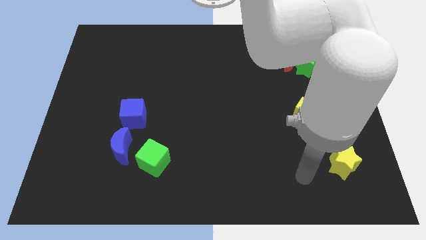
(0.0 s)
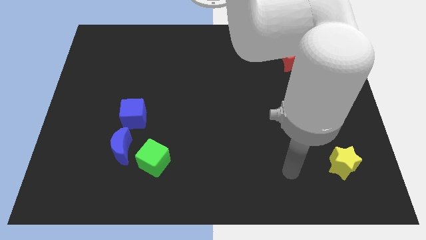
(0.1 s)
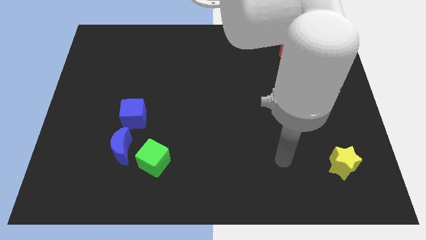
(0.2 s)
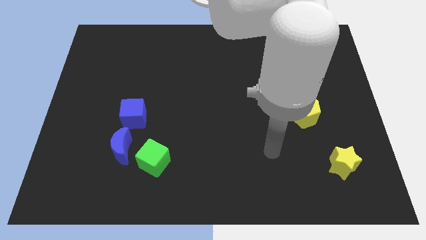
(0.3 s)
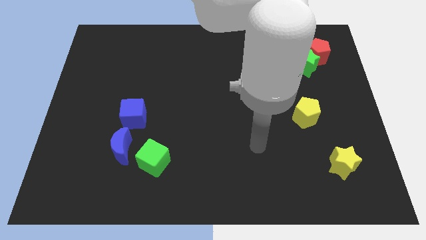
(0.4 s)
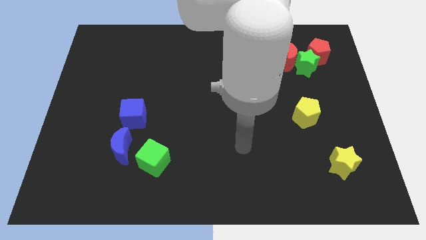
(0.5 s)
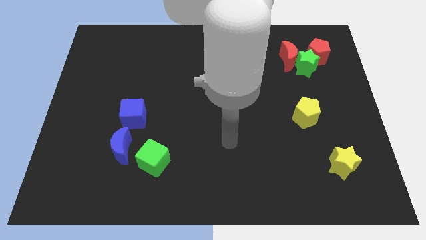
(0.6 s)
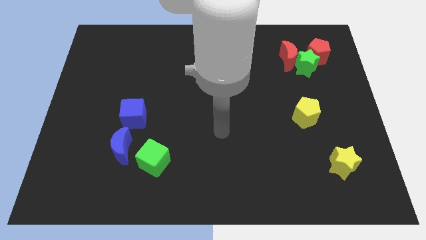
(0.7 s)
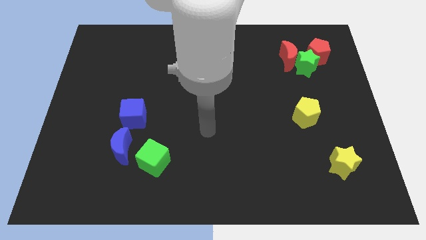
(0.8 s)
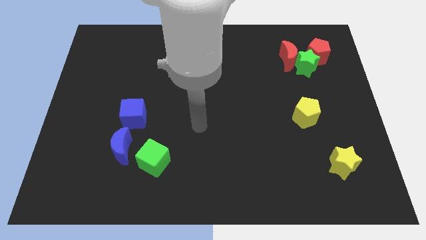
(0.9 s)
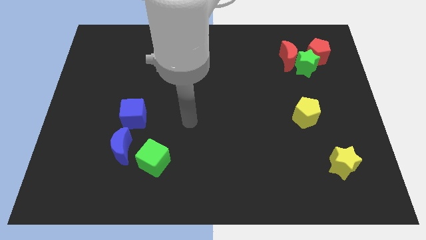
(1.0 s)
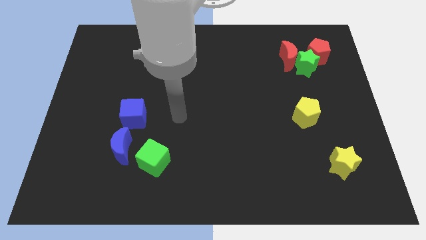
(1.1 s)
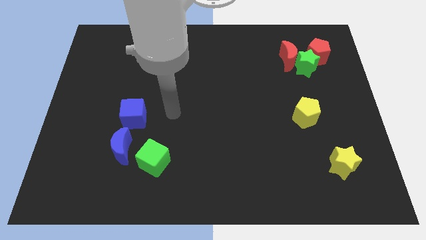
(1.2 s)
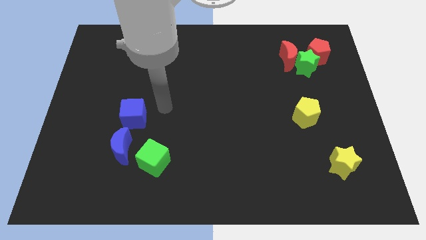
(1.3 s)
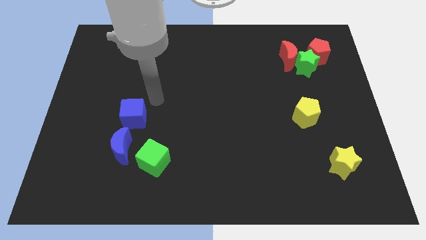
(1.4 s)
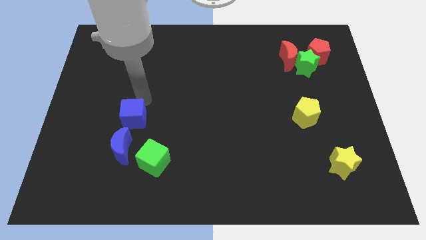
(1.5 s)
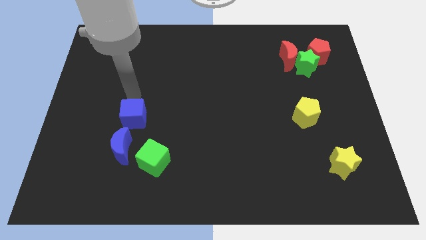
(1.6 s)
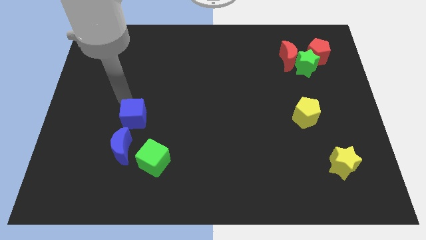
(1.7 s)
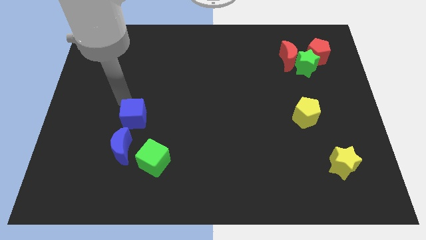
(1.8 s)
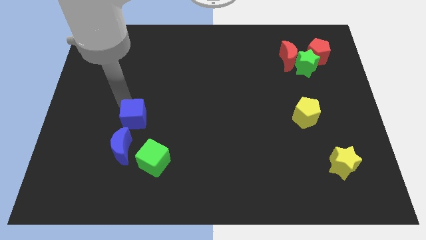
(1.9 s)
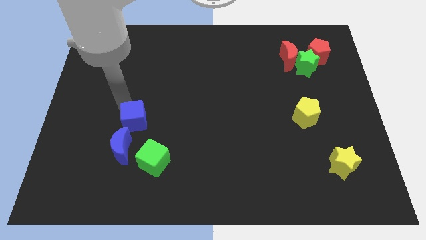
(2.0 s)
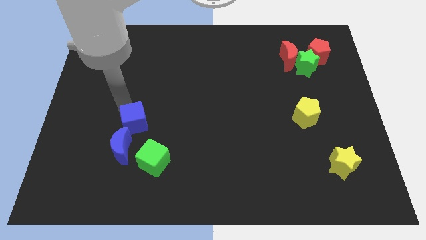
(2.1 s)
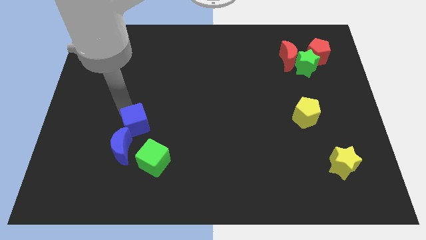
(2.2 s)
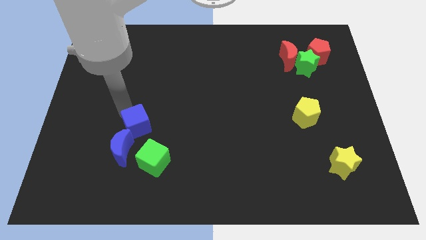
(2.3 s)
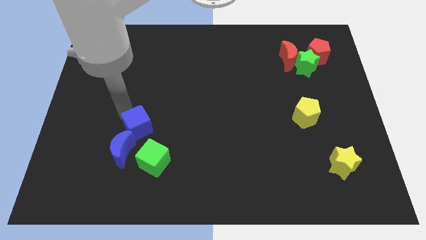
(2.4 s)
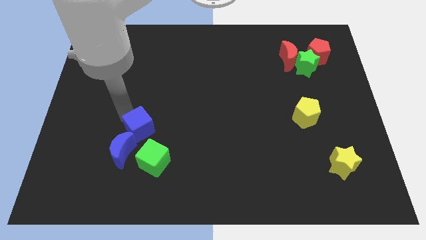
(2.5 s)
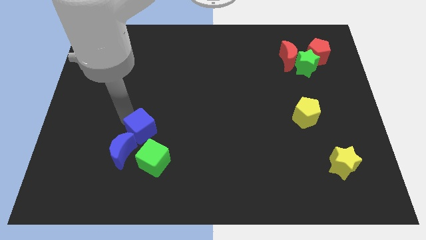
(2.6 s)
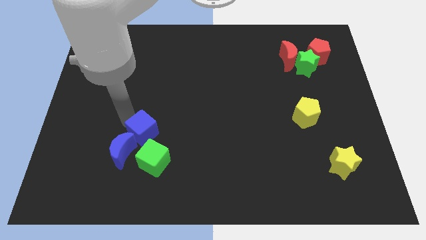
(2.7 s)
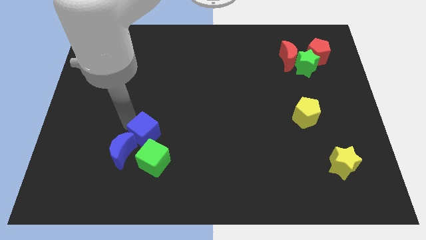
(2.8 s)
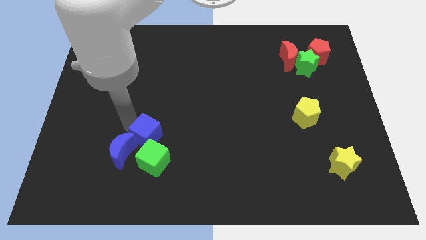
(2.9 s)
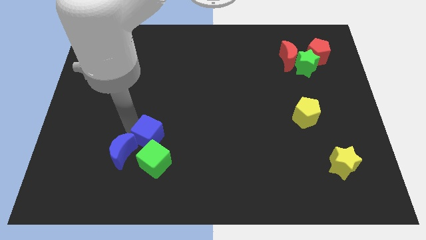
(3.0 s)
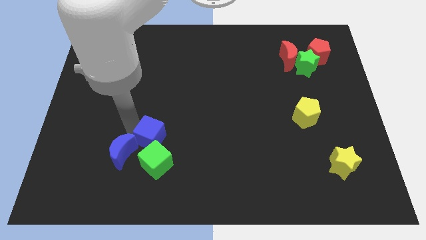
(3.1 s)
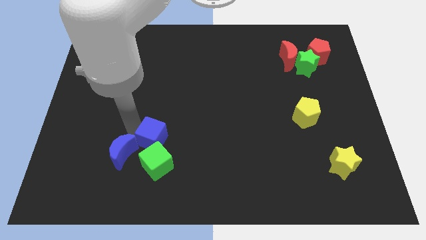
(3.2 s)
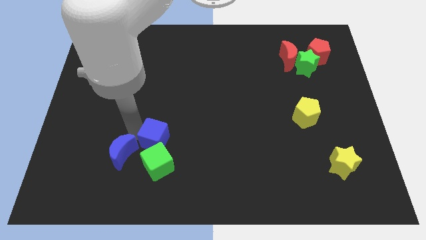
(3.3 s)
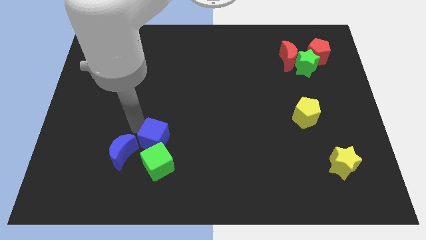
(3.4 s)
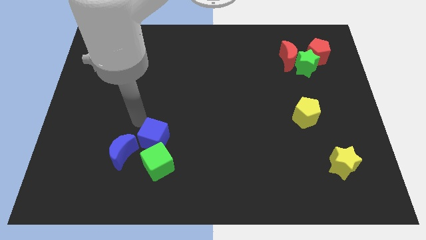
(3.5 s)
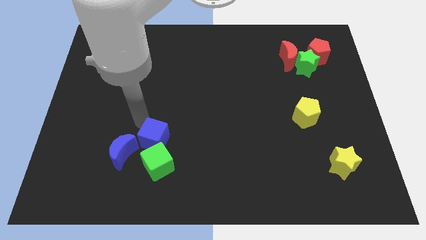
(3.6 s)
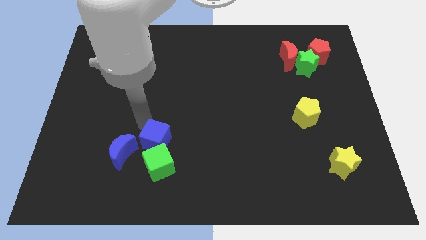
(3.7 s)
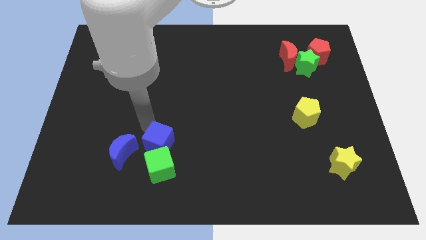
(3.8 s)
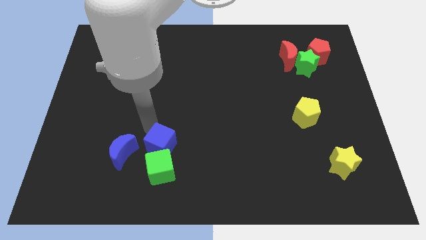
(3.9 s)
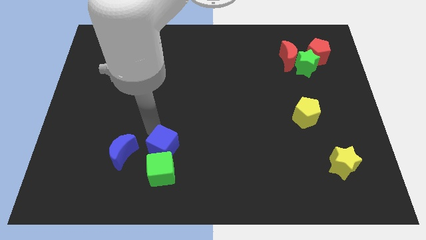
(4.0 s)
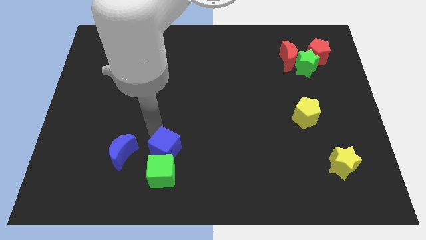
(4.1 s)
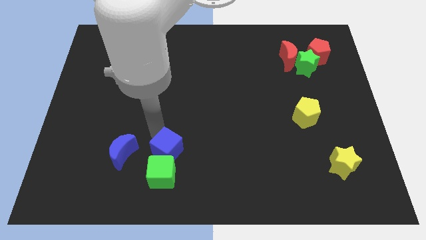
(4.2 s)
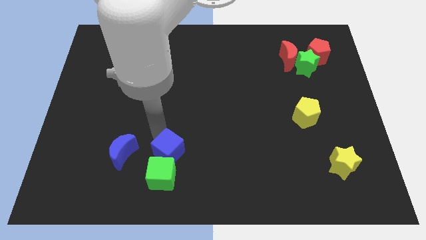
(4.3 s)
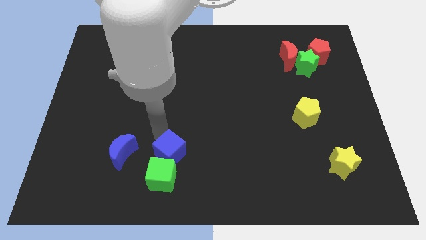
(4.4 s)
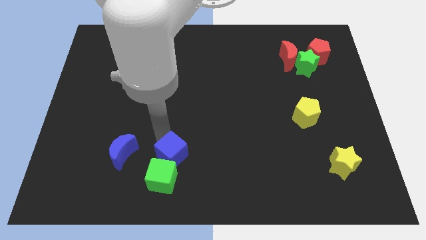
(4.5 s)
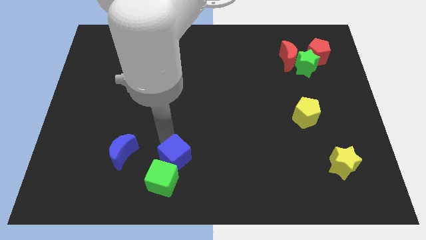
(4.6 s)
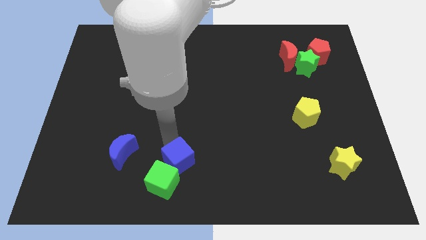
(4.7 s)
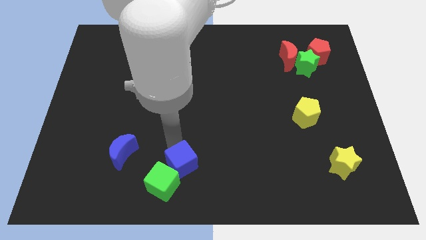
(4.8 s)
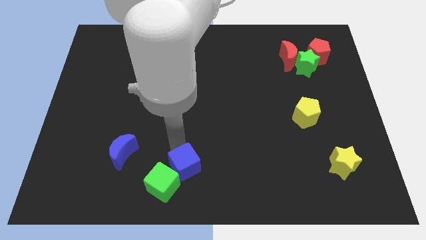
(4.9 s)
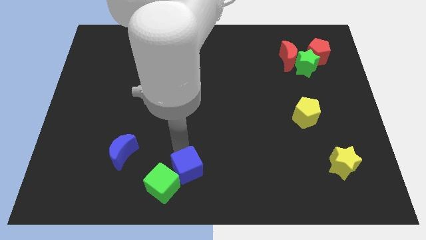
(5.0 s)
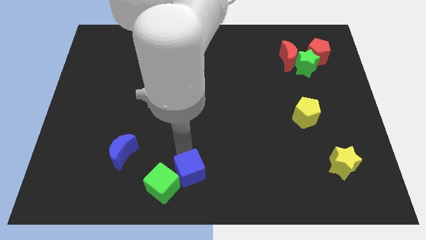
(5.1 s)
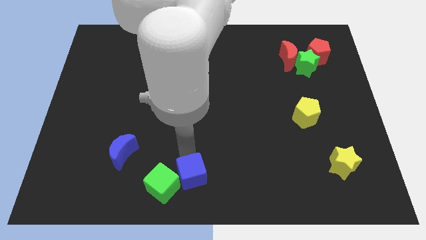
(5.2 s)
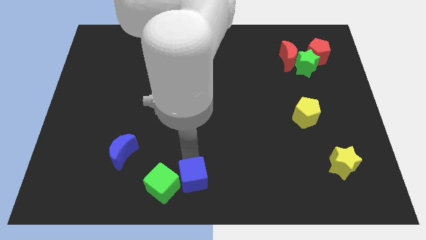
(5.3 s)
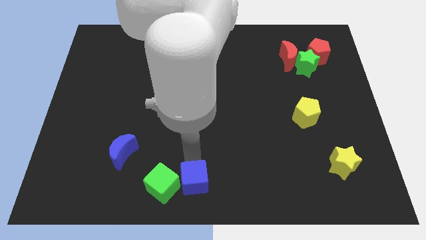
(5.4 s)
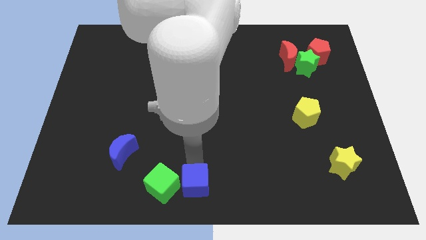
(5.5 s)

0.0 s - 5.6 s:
slide the blue cube to the bottom right of the green cube

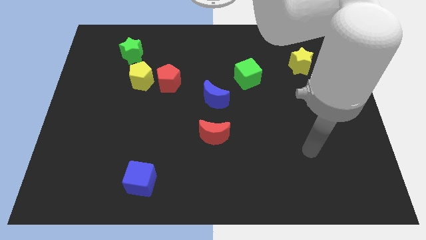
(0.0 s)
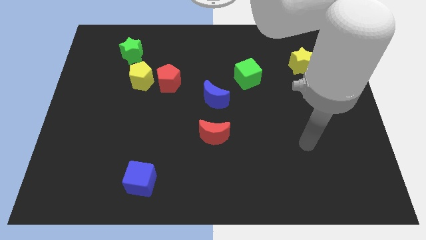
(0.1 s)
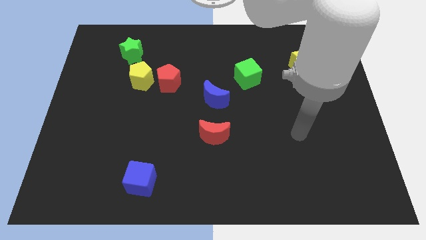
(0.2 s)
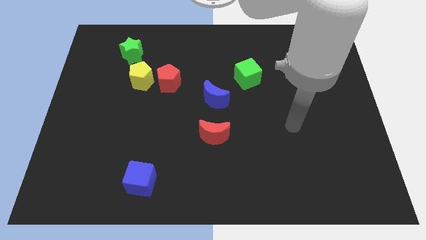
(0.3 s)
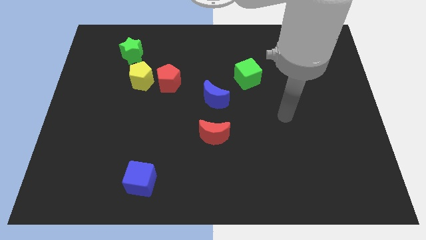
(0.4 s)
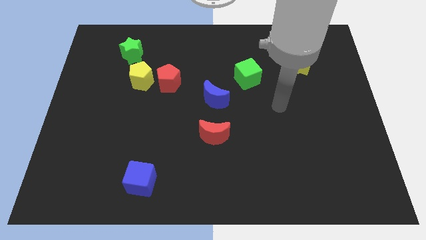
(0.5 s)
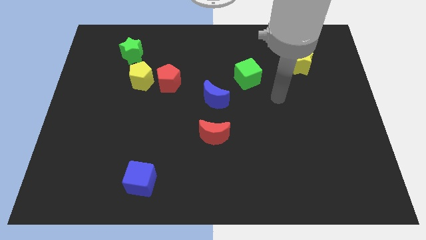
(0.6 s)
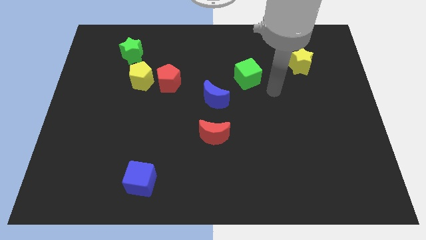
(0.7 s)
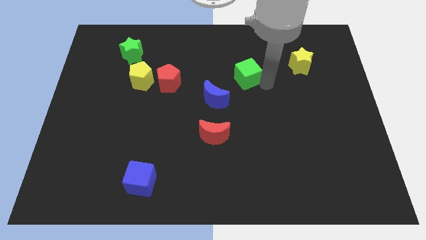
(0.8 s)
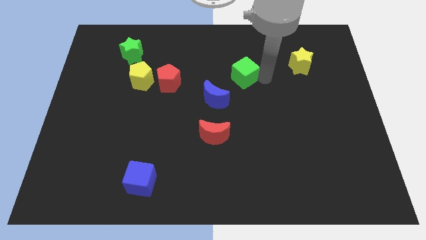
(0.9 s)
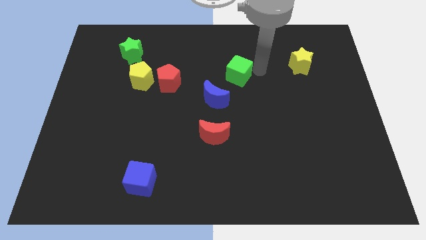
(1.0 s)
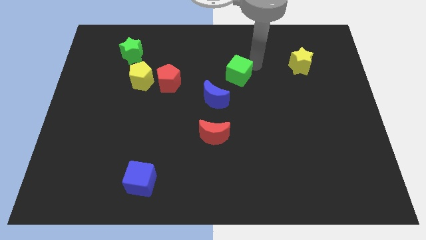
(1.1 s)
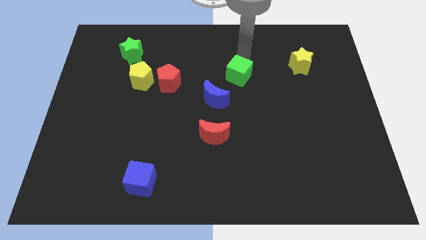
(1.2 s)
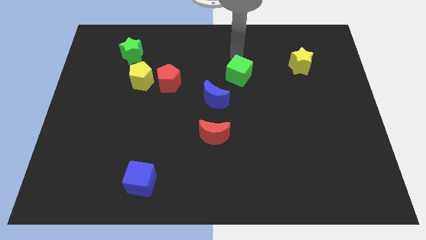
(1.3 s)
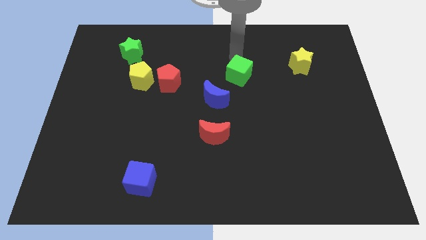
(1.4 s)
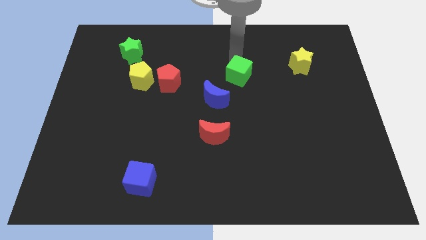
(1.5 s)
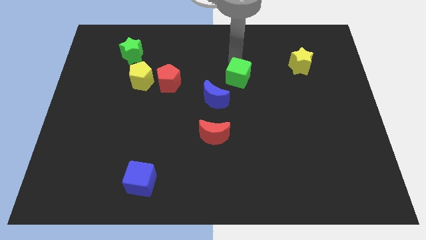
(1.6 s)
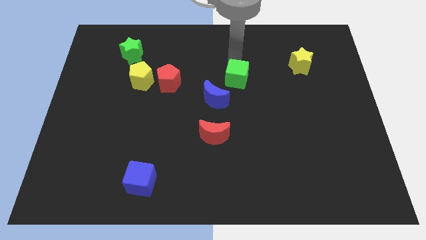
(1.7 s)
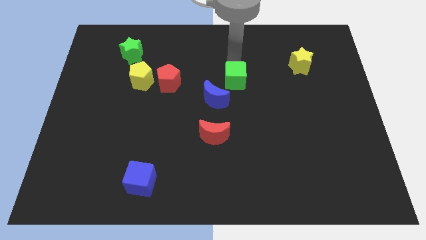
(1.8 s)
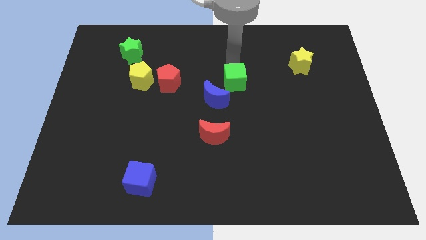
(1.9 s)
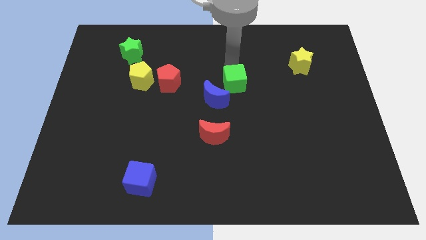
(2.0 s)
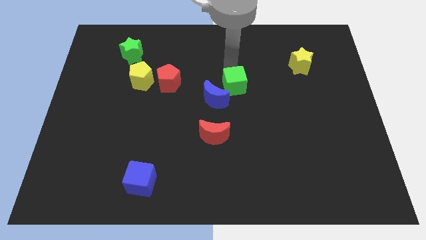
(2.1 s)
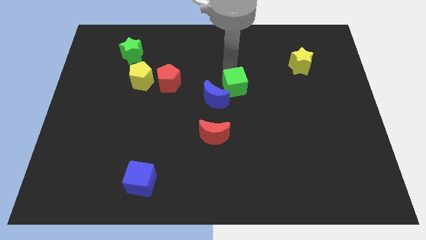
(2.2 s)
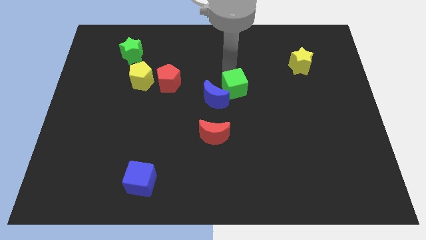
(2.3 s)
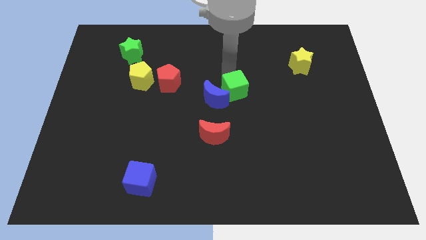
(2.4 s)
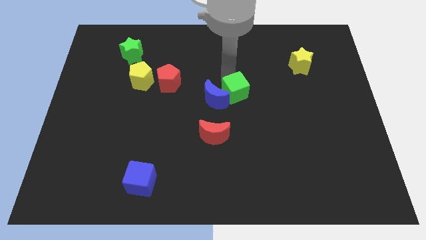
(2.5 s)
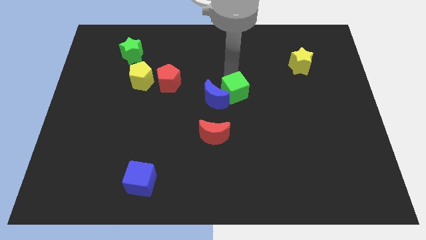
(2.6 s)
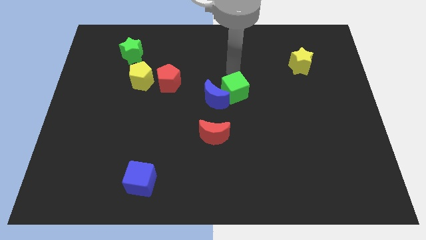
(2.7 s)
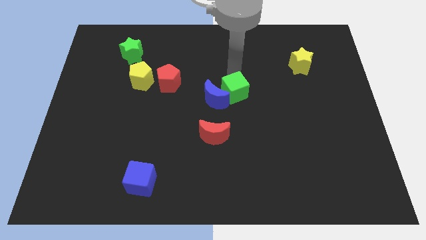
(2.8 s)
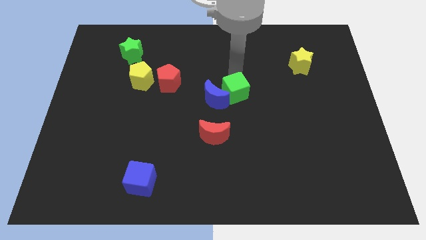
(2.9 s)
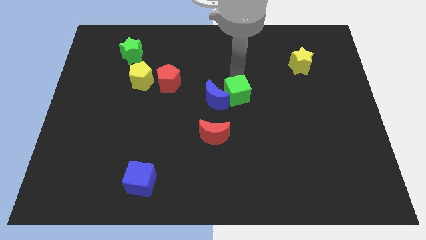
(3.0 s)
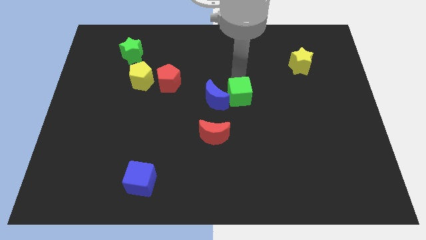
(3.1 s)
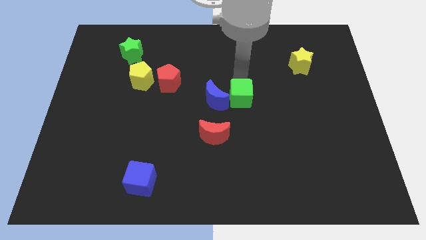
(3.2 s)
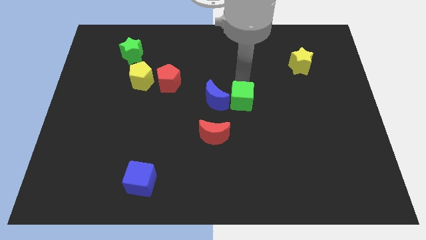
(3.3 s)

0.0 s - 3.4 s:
put the green cube to the bottom right side of the blue moon
